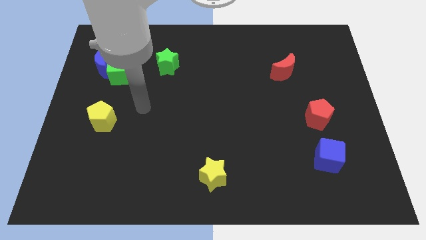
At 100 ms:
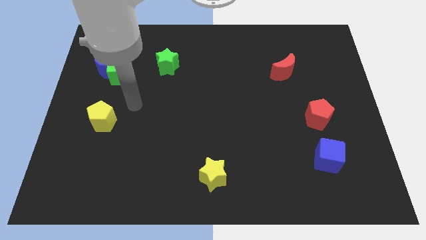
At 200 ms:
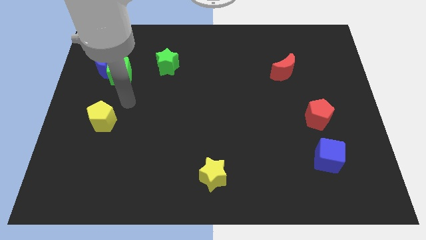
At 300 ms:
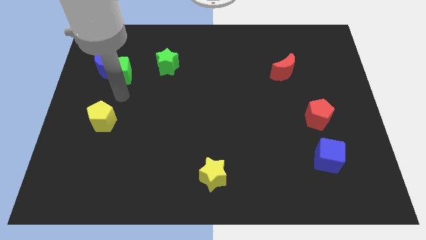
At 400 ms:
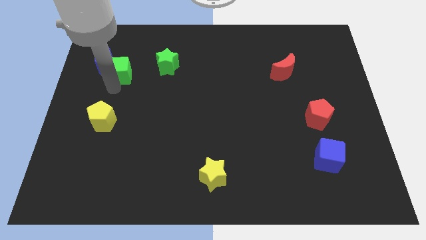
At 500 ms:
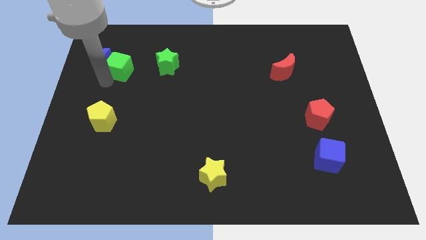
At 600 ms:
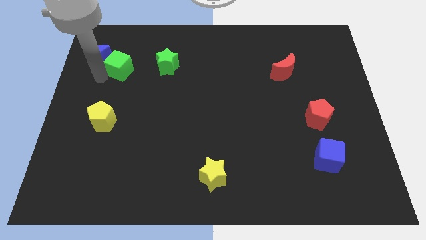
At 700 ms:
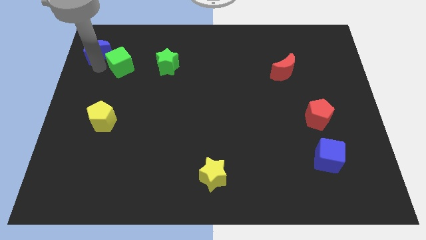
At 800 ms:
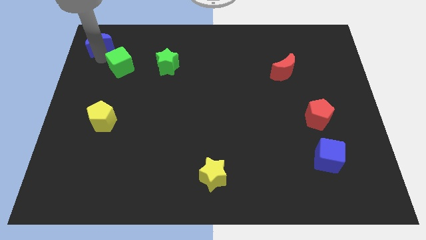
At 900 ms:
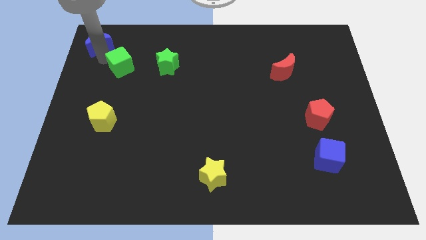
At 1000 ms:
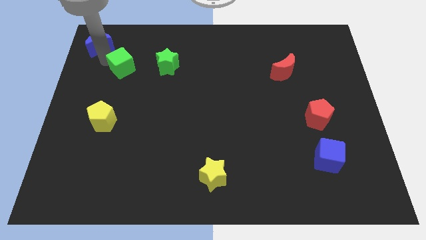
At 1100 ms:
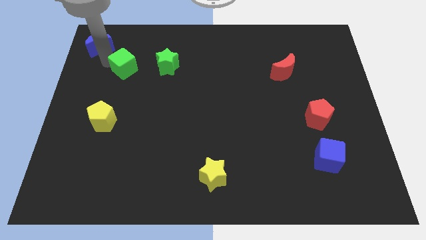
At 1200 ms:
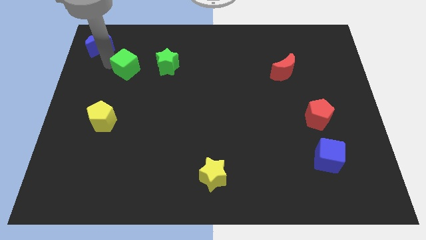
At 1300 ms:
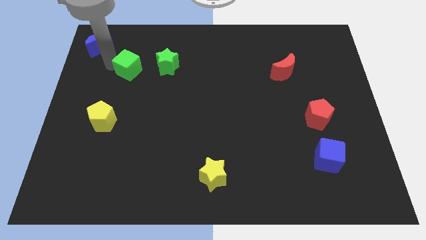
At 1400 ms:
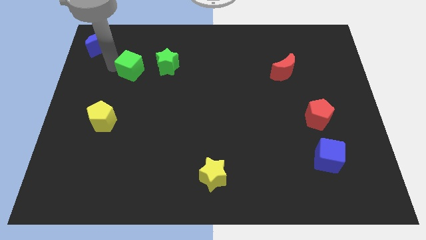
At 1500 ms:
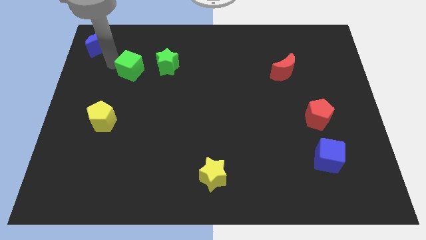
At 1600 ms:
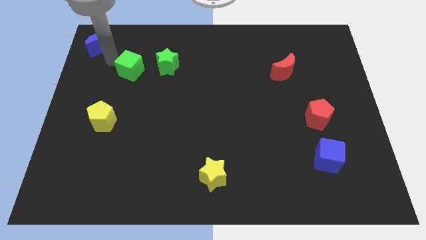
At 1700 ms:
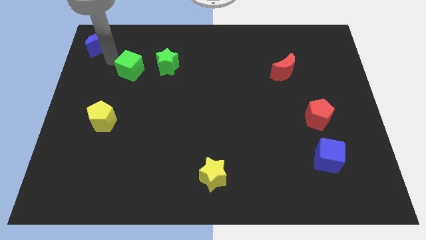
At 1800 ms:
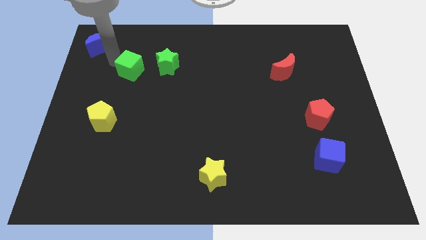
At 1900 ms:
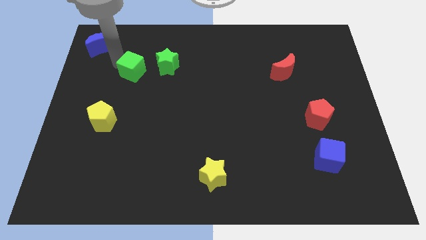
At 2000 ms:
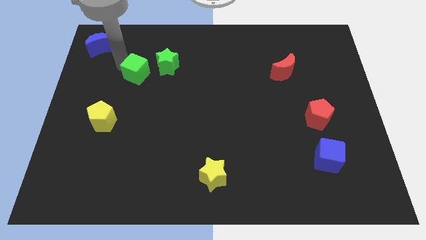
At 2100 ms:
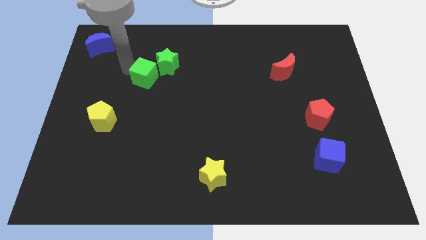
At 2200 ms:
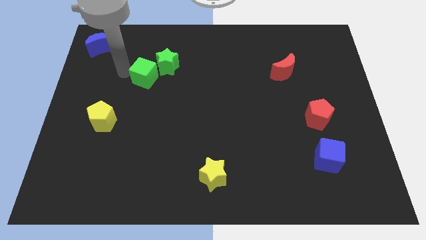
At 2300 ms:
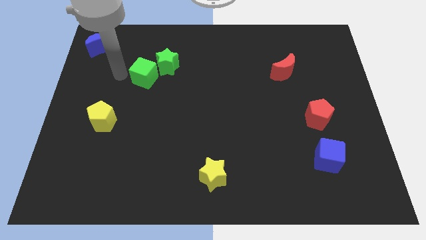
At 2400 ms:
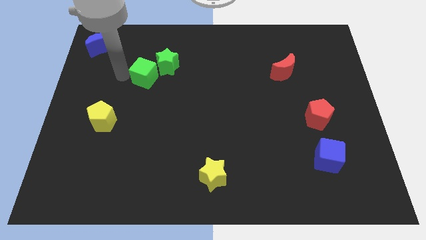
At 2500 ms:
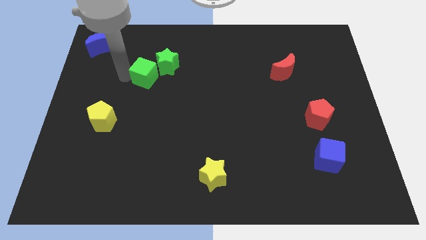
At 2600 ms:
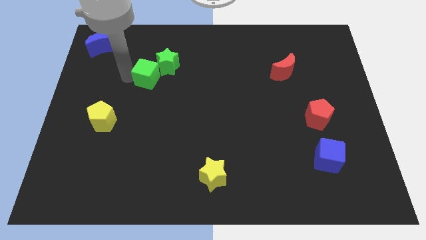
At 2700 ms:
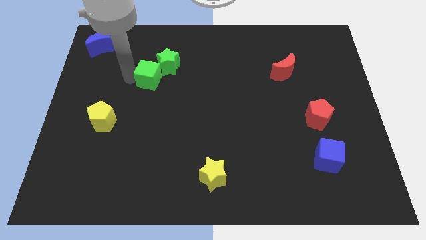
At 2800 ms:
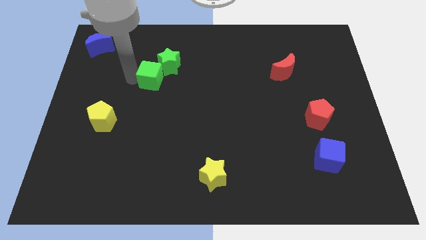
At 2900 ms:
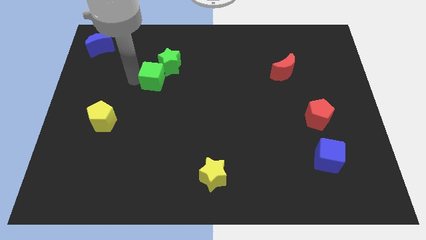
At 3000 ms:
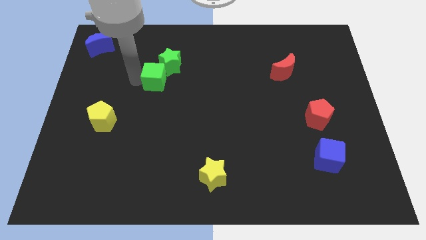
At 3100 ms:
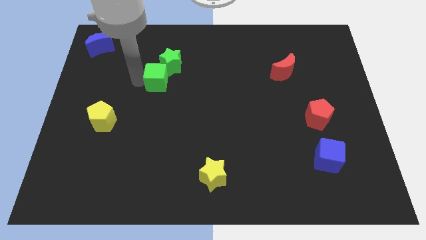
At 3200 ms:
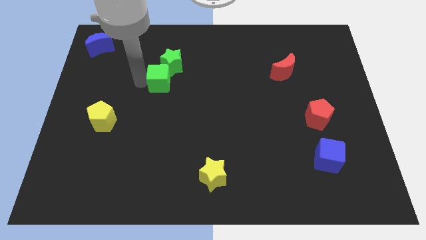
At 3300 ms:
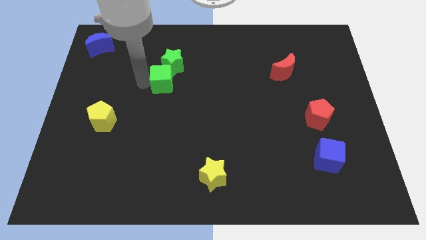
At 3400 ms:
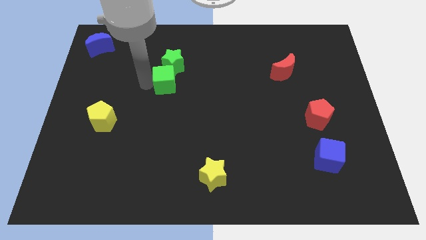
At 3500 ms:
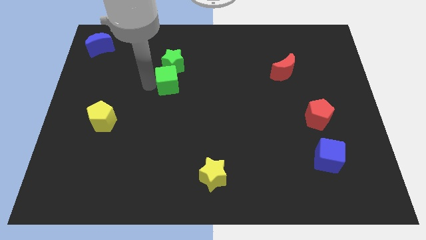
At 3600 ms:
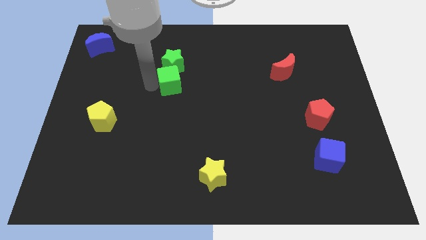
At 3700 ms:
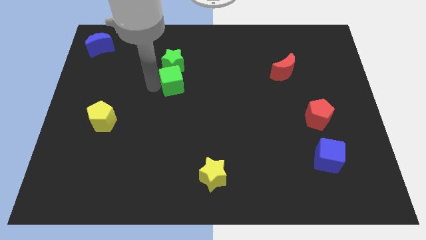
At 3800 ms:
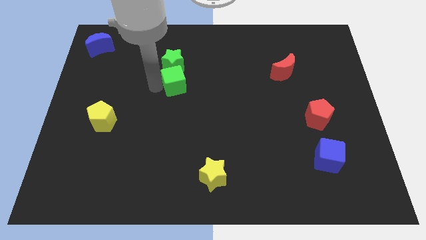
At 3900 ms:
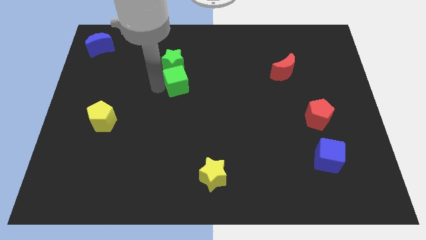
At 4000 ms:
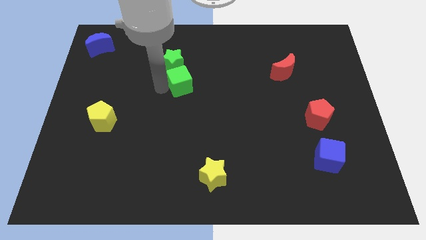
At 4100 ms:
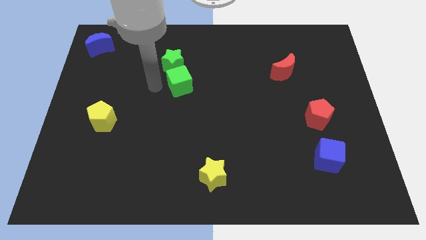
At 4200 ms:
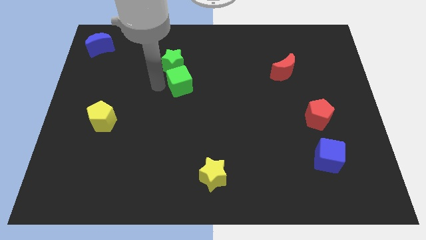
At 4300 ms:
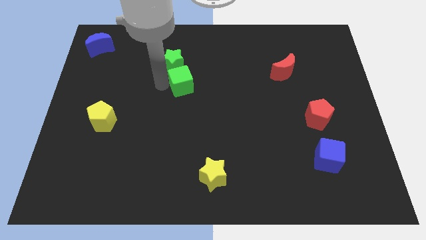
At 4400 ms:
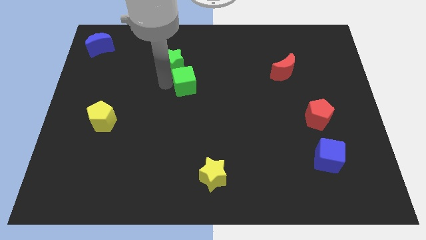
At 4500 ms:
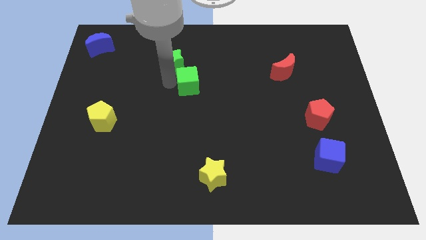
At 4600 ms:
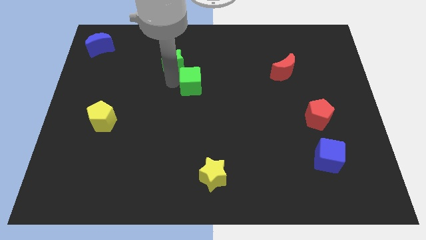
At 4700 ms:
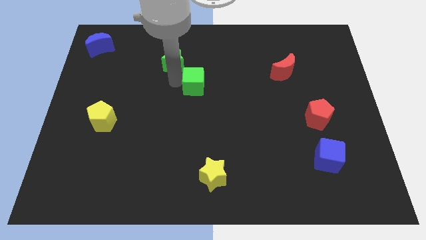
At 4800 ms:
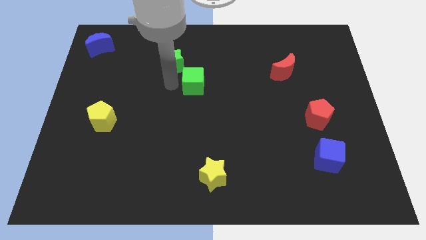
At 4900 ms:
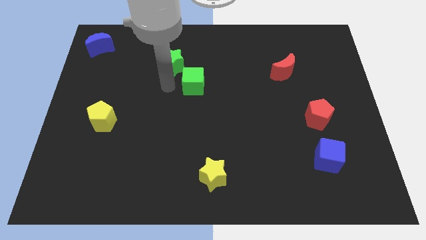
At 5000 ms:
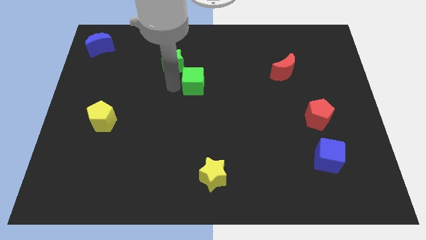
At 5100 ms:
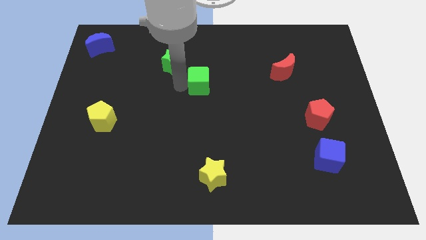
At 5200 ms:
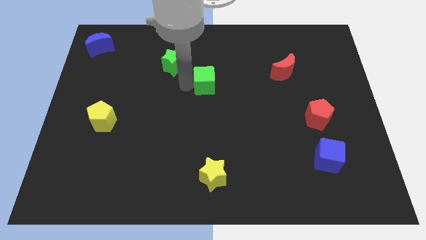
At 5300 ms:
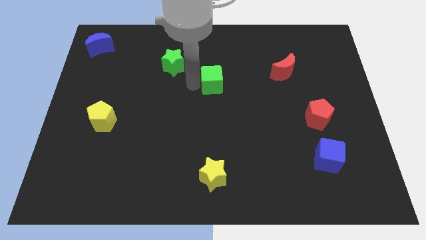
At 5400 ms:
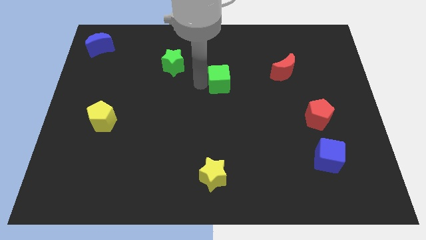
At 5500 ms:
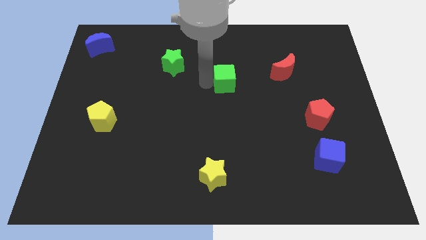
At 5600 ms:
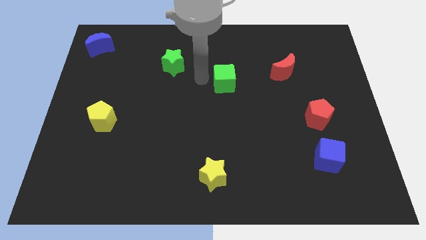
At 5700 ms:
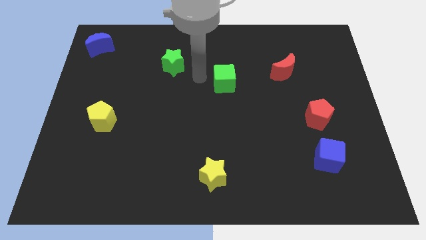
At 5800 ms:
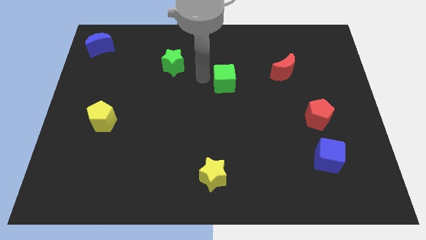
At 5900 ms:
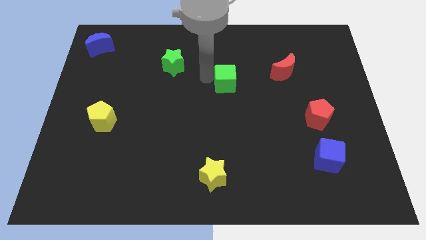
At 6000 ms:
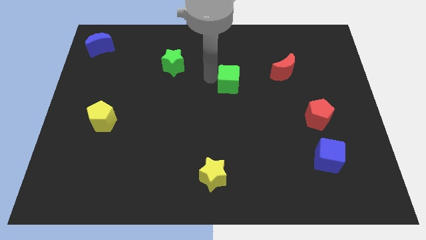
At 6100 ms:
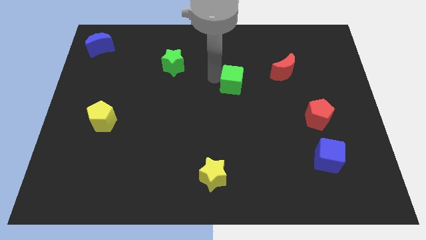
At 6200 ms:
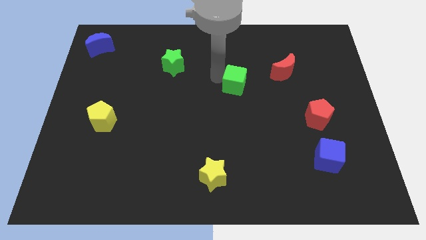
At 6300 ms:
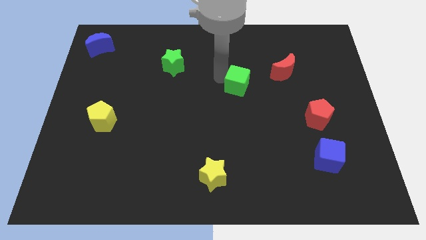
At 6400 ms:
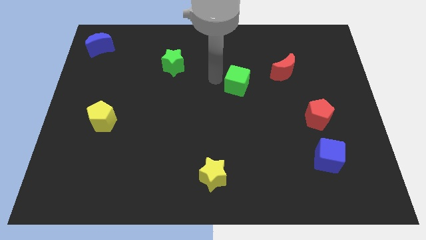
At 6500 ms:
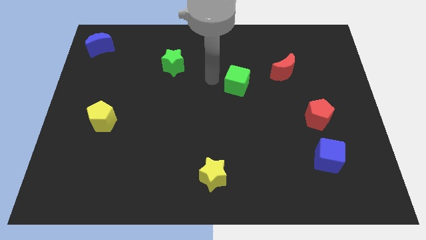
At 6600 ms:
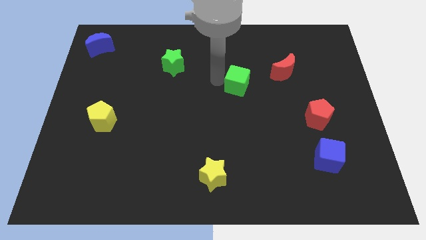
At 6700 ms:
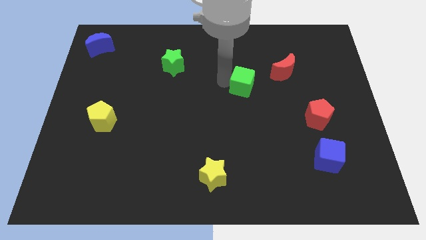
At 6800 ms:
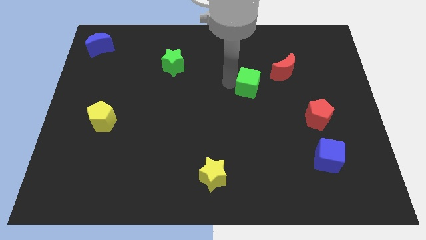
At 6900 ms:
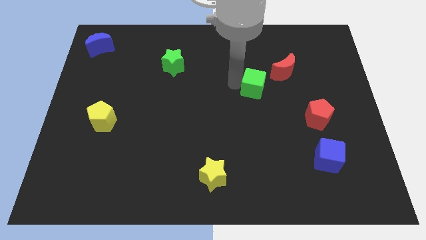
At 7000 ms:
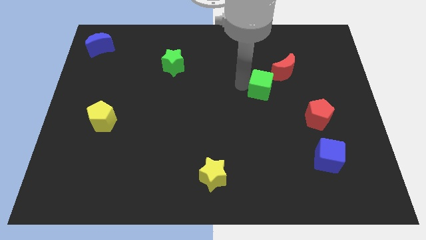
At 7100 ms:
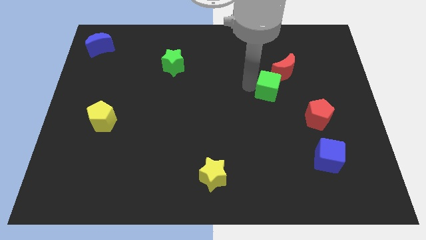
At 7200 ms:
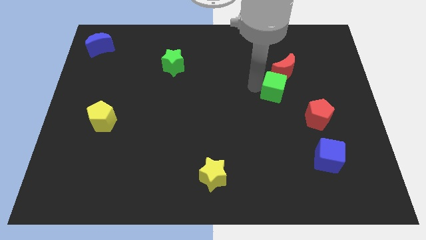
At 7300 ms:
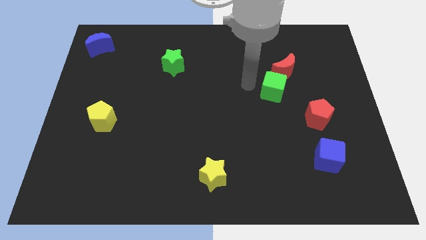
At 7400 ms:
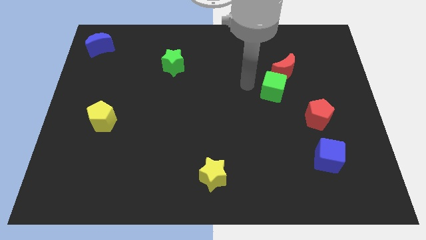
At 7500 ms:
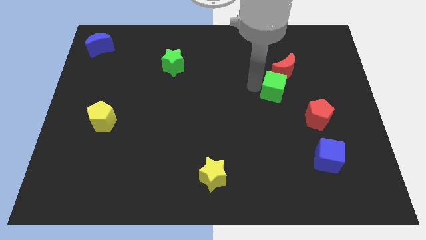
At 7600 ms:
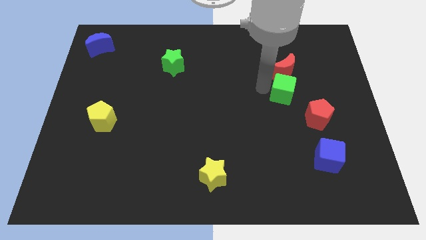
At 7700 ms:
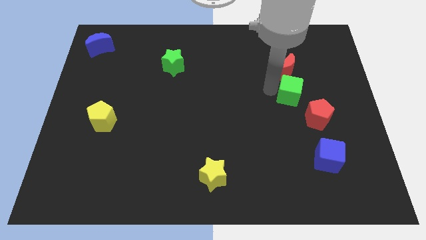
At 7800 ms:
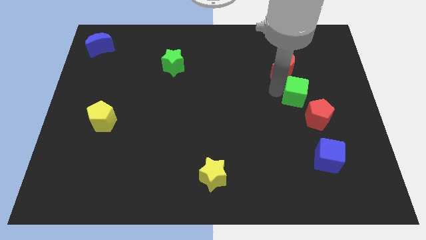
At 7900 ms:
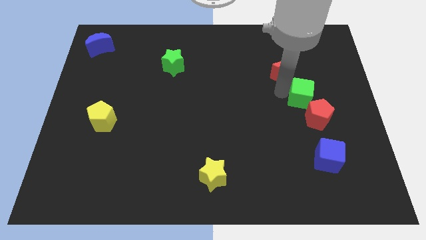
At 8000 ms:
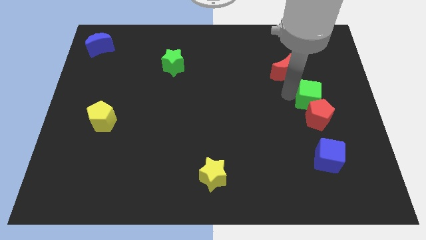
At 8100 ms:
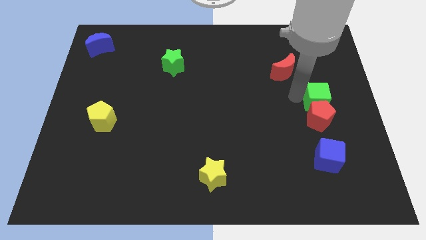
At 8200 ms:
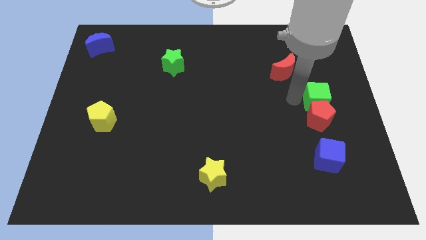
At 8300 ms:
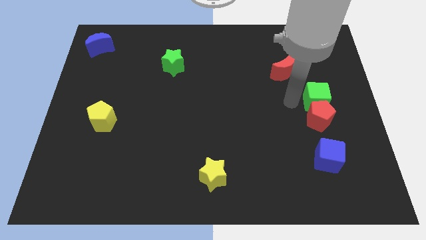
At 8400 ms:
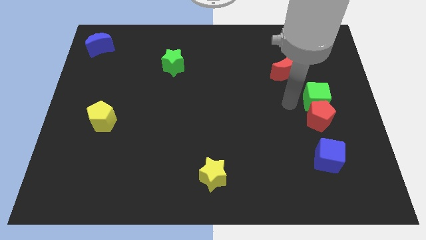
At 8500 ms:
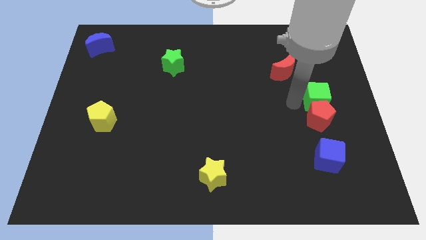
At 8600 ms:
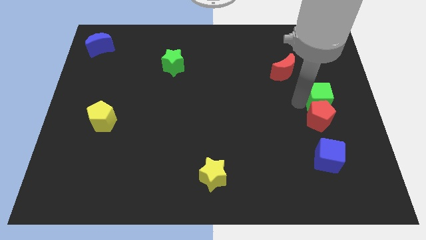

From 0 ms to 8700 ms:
move the green cube to the right side
